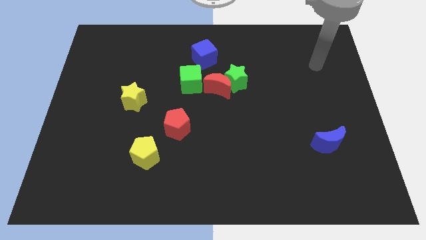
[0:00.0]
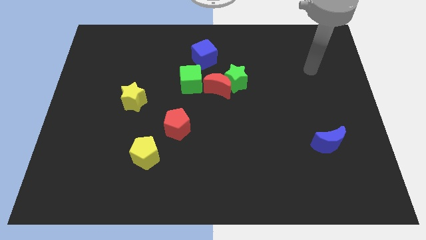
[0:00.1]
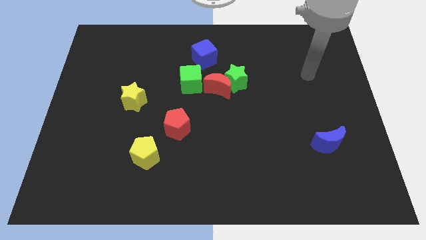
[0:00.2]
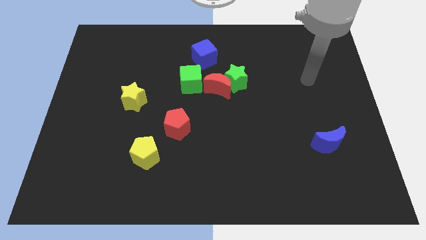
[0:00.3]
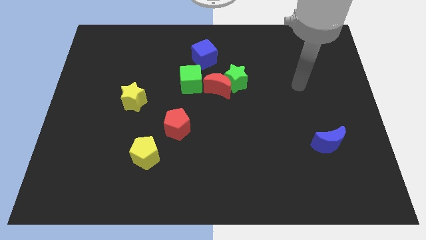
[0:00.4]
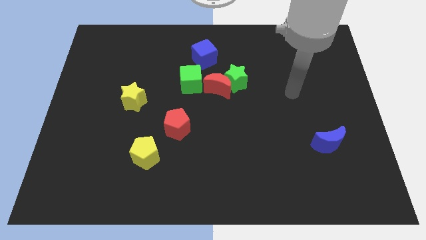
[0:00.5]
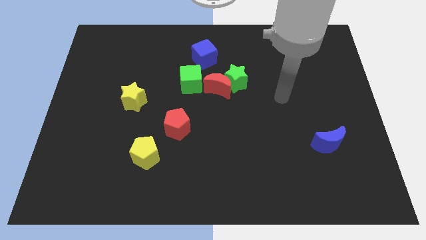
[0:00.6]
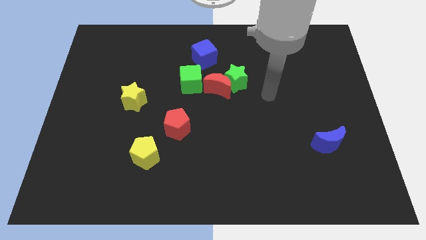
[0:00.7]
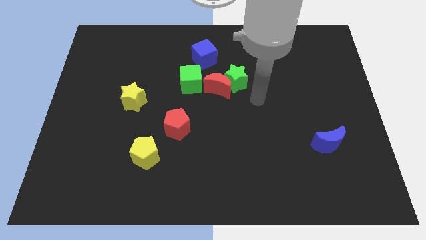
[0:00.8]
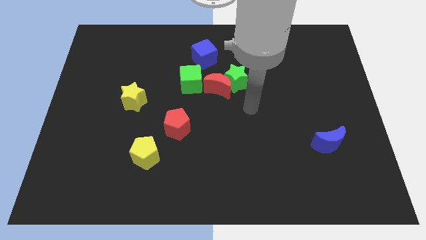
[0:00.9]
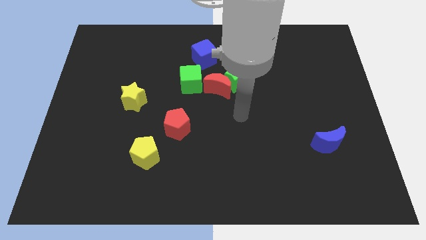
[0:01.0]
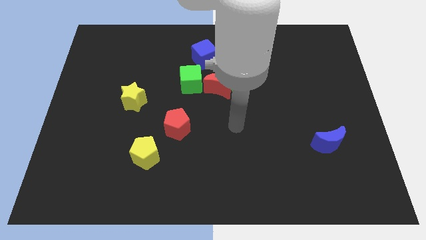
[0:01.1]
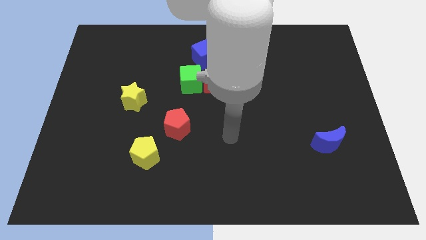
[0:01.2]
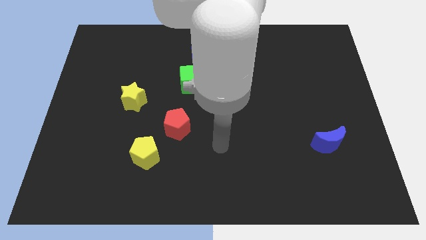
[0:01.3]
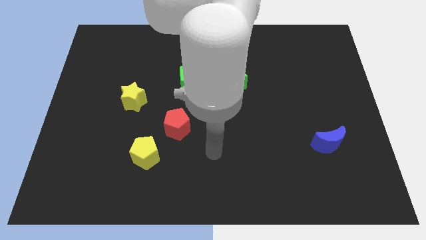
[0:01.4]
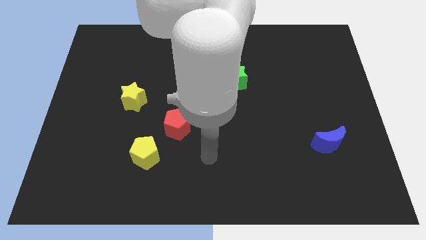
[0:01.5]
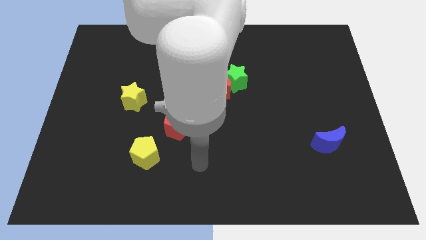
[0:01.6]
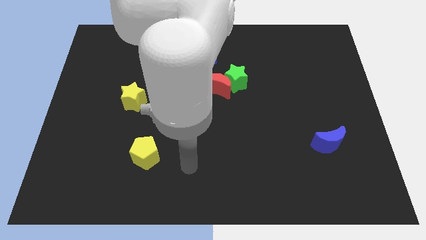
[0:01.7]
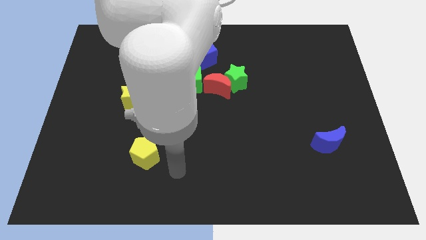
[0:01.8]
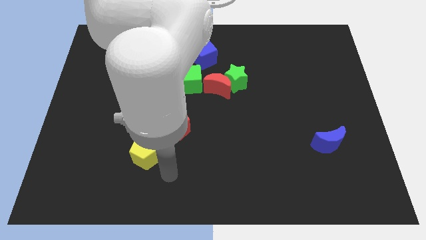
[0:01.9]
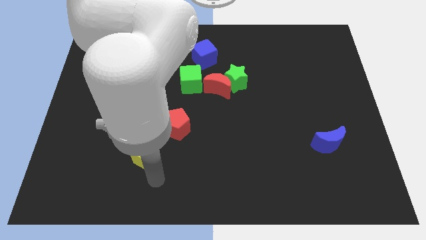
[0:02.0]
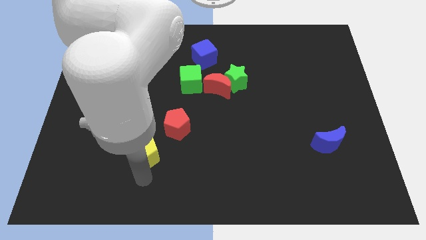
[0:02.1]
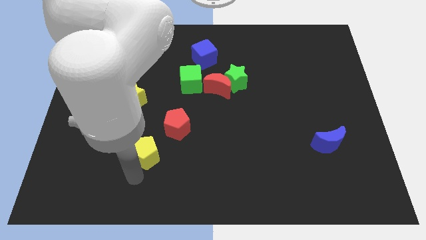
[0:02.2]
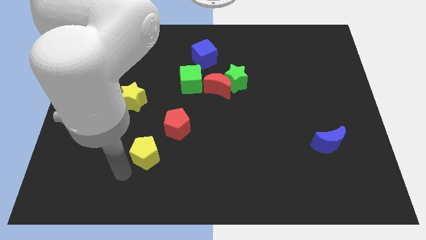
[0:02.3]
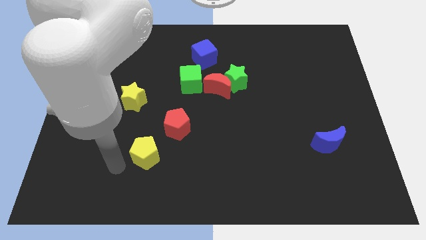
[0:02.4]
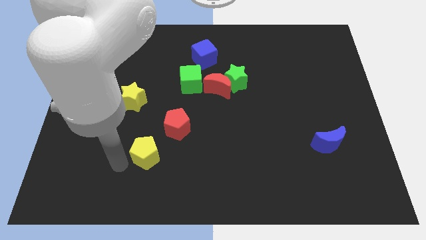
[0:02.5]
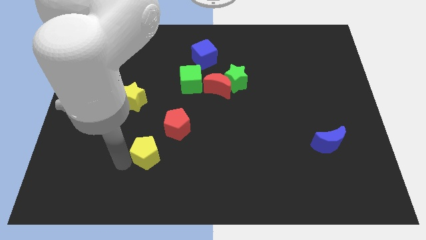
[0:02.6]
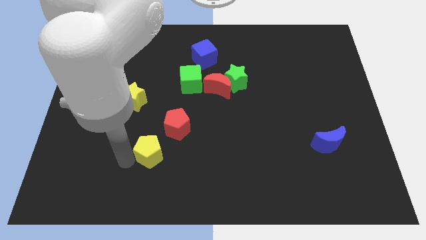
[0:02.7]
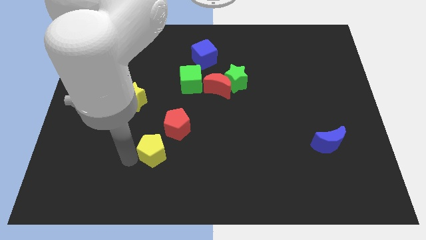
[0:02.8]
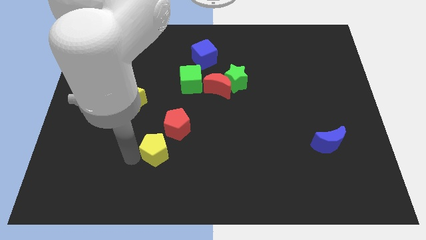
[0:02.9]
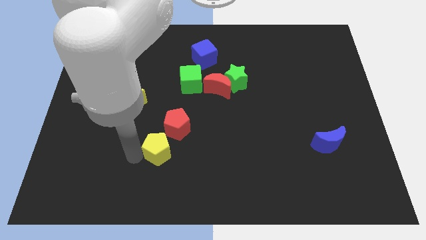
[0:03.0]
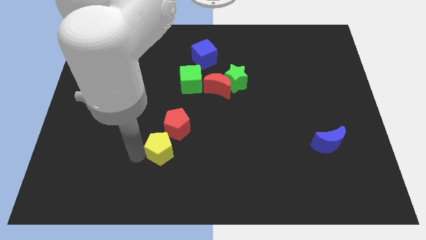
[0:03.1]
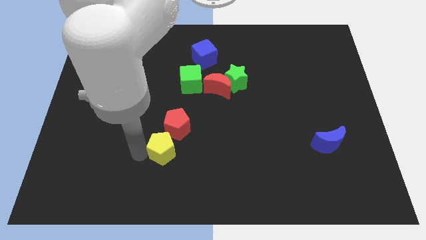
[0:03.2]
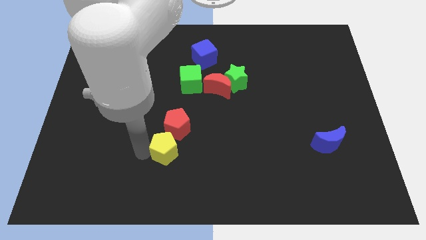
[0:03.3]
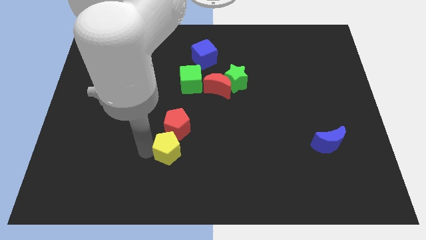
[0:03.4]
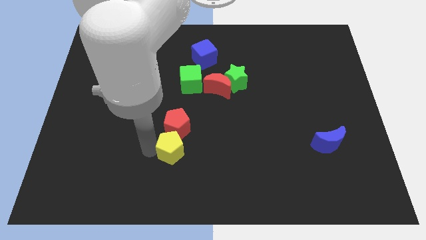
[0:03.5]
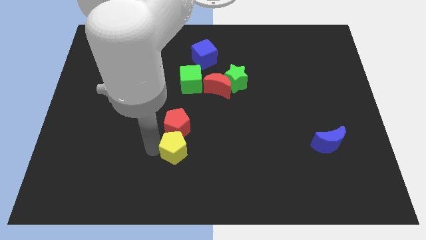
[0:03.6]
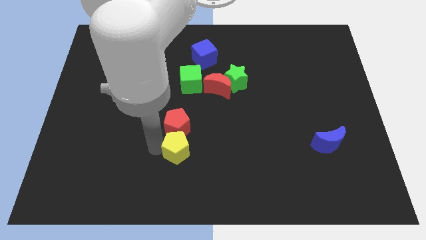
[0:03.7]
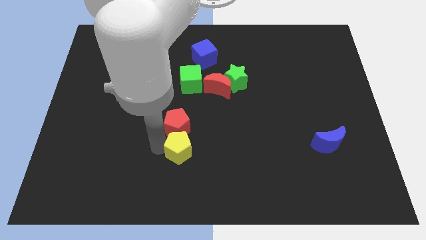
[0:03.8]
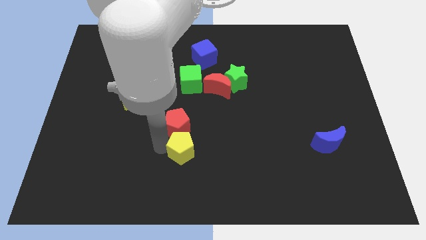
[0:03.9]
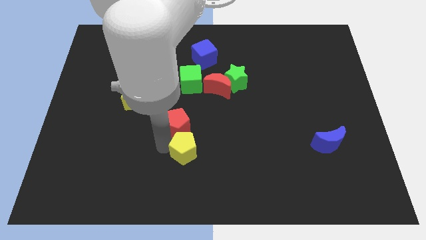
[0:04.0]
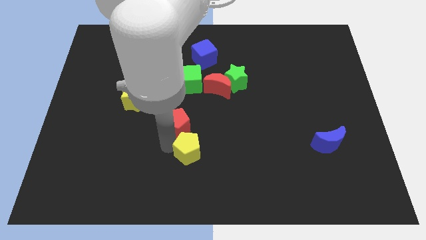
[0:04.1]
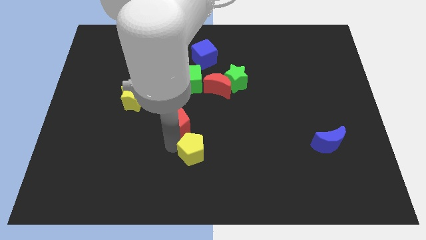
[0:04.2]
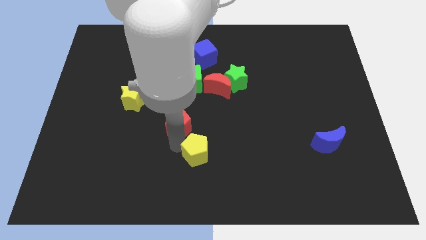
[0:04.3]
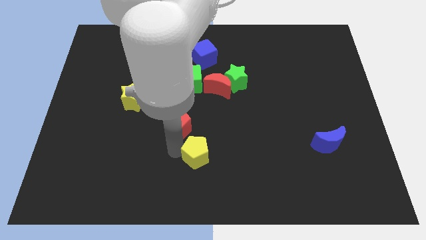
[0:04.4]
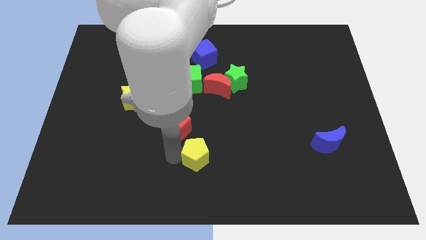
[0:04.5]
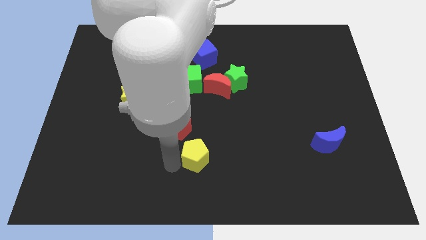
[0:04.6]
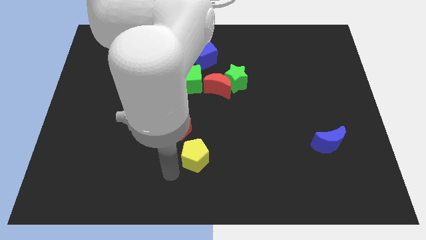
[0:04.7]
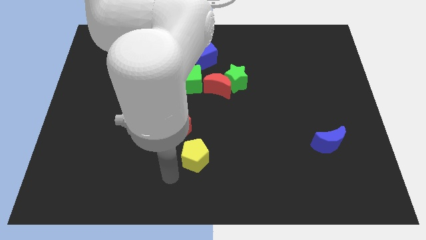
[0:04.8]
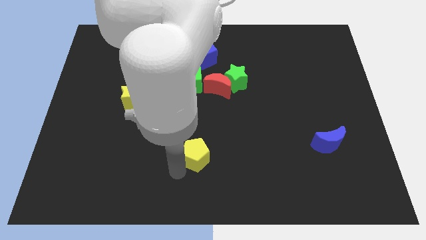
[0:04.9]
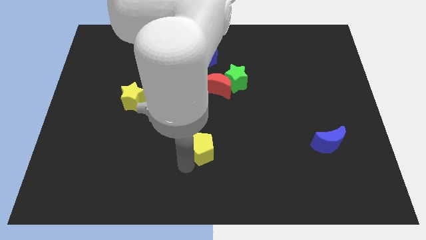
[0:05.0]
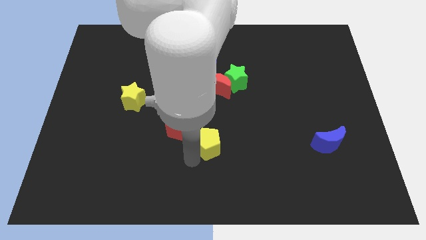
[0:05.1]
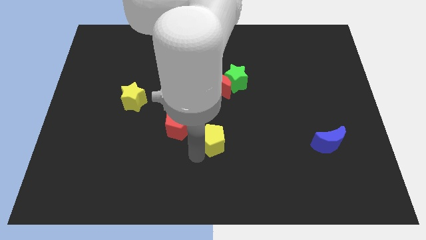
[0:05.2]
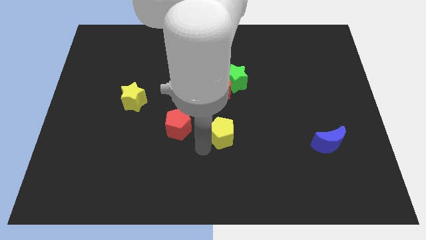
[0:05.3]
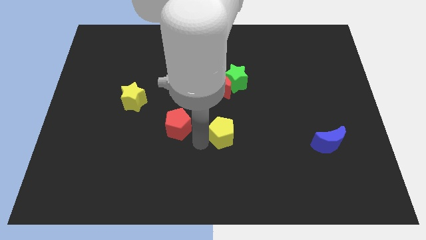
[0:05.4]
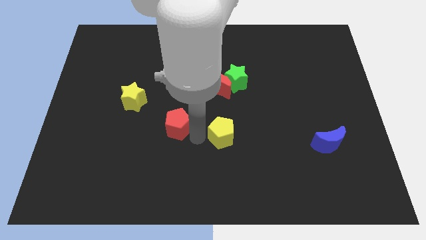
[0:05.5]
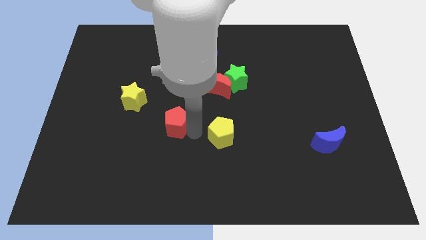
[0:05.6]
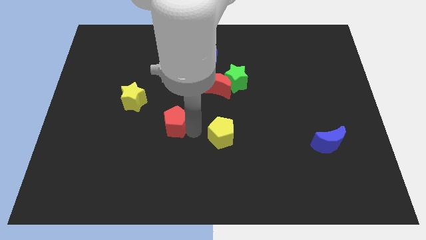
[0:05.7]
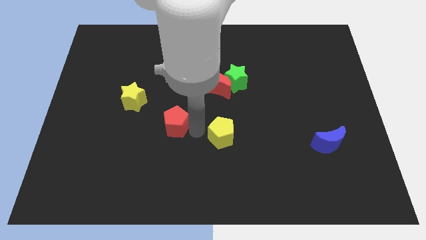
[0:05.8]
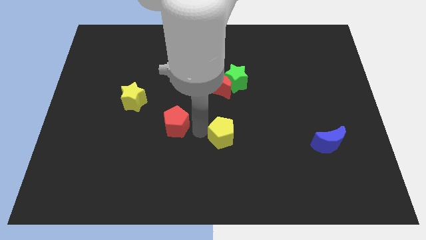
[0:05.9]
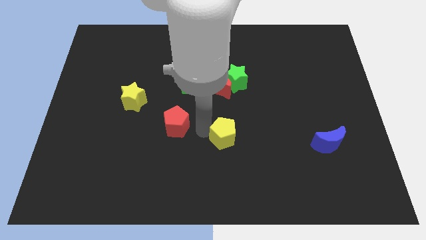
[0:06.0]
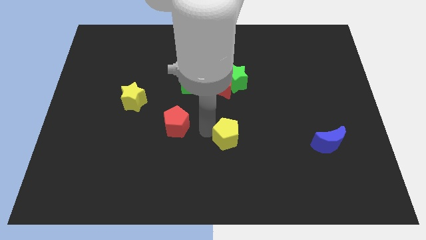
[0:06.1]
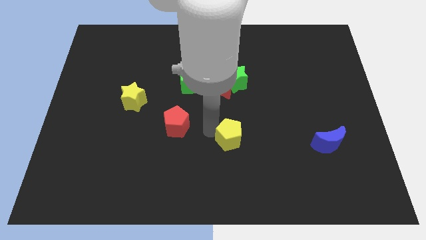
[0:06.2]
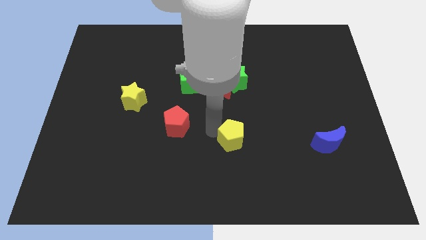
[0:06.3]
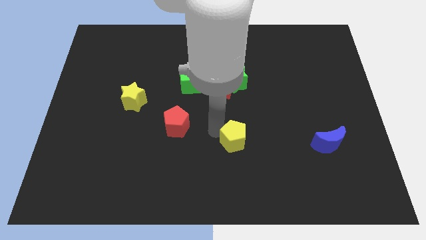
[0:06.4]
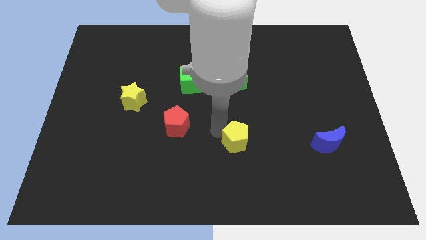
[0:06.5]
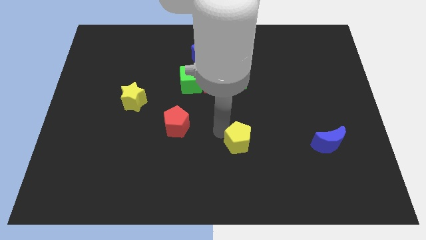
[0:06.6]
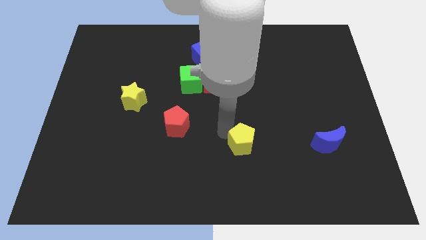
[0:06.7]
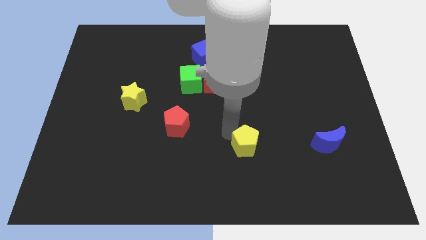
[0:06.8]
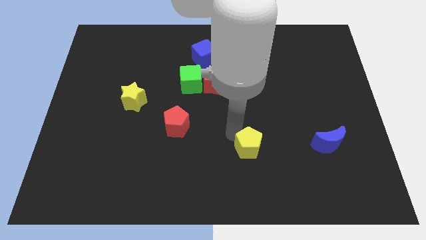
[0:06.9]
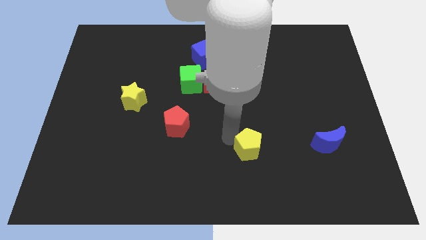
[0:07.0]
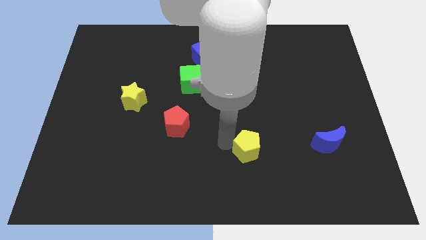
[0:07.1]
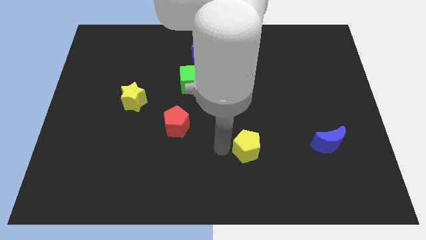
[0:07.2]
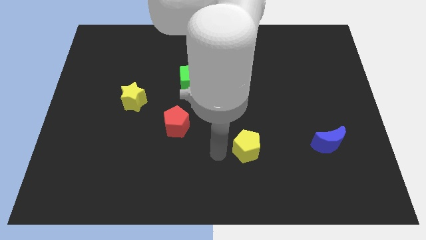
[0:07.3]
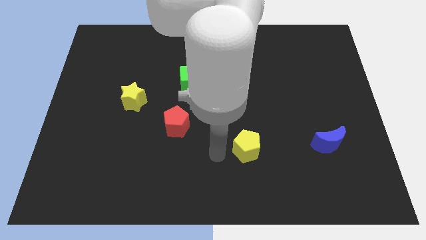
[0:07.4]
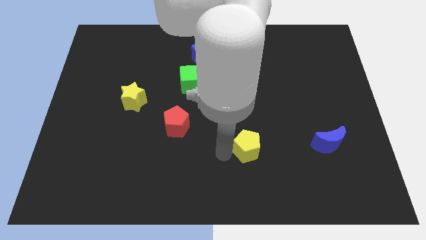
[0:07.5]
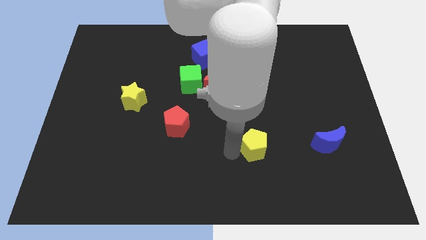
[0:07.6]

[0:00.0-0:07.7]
slide the yellow pentagon just left of the blue moon
